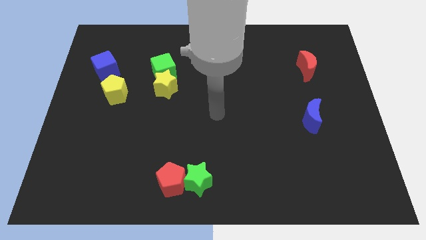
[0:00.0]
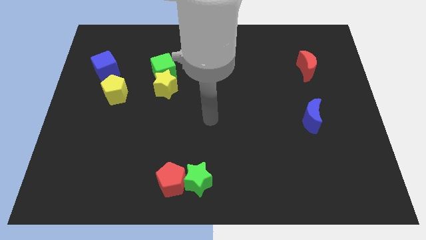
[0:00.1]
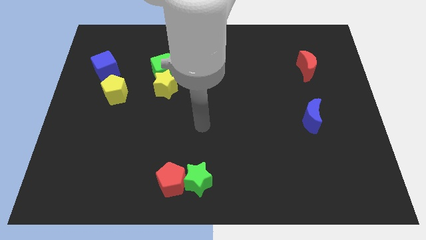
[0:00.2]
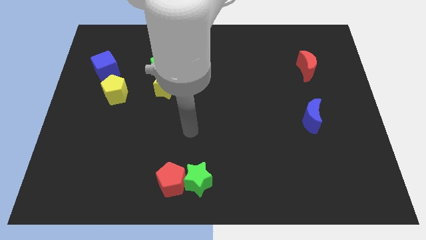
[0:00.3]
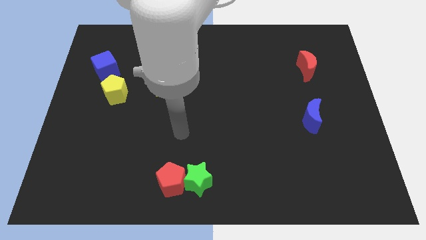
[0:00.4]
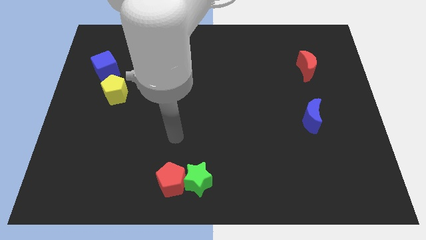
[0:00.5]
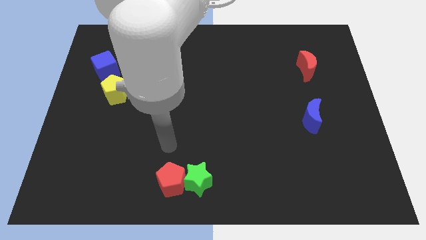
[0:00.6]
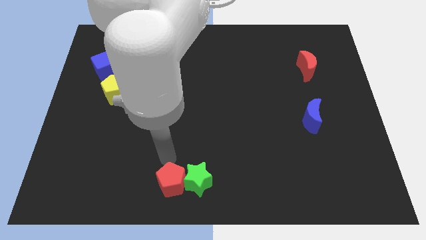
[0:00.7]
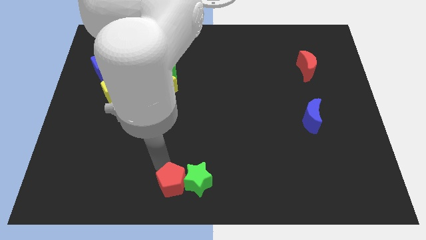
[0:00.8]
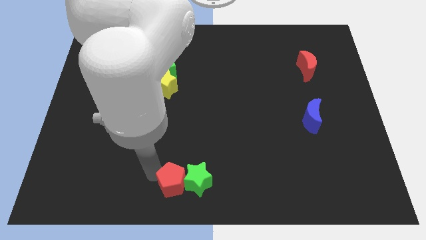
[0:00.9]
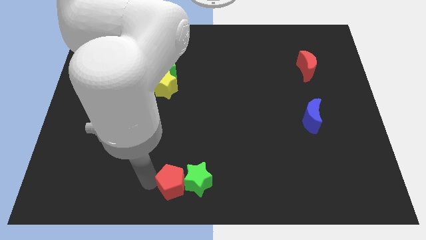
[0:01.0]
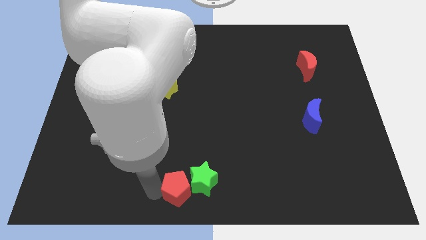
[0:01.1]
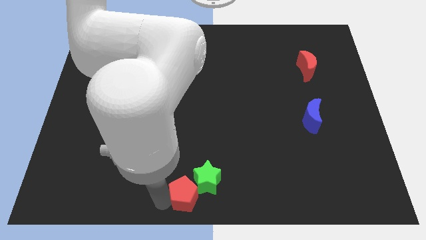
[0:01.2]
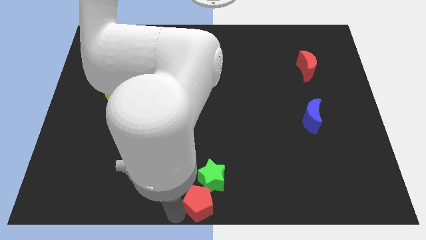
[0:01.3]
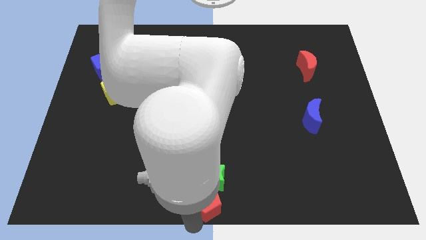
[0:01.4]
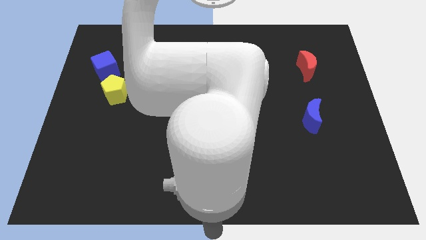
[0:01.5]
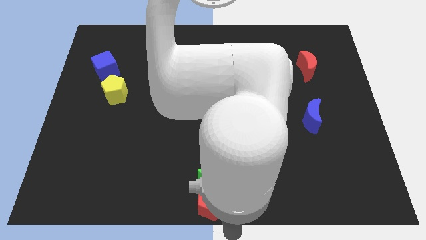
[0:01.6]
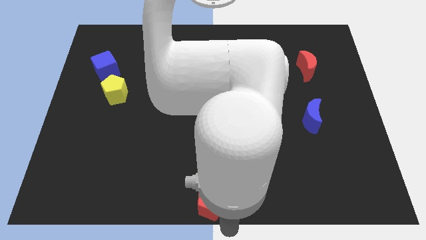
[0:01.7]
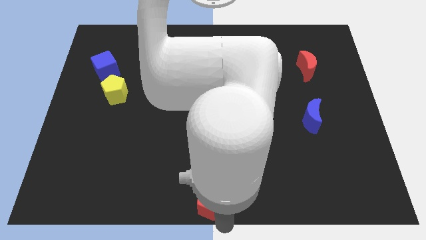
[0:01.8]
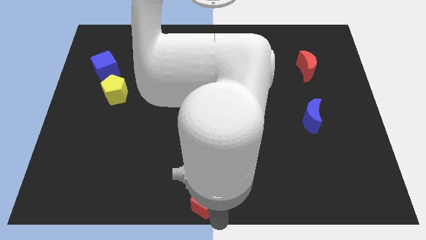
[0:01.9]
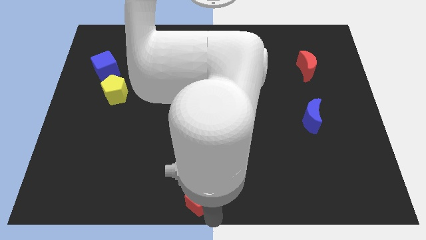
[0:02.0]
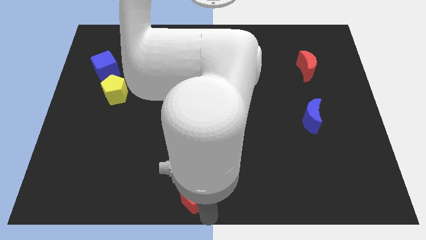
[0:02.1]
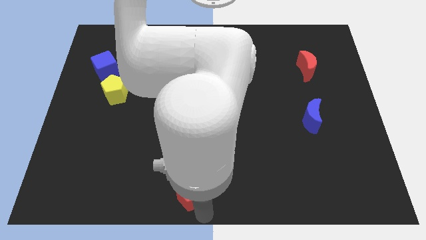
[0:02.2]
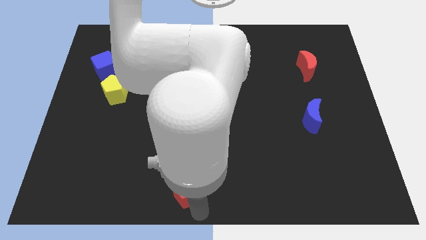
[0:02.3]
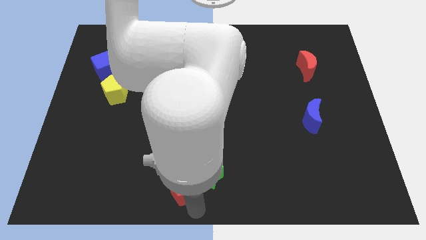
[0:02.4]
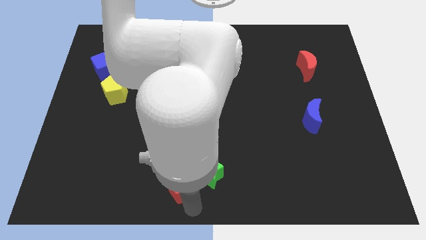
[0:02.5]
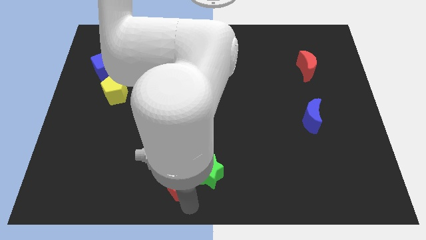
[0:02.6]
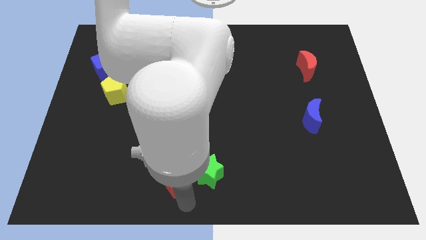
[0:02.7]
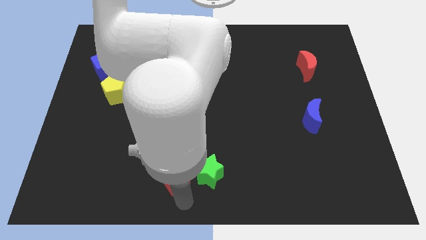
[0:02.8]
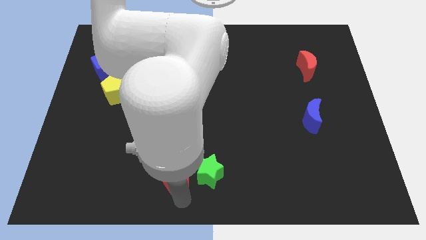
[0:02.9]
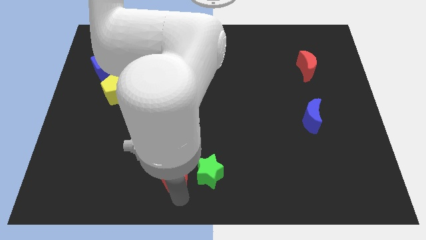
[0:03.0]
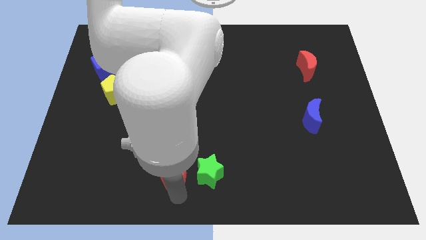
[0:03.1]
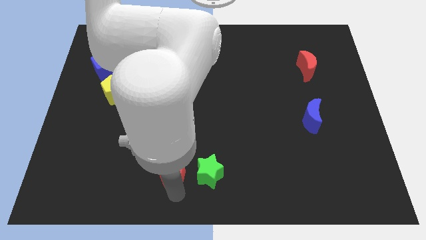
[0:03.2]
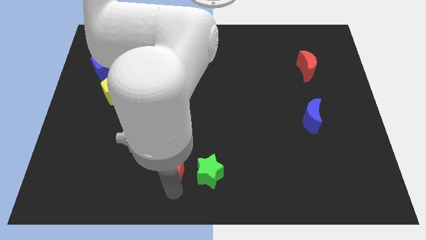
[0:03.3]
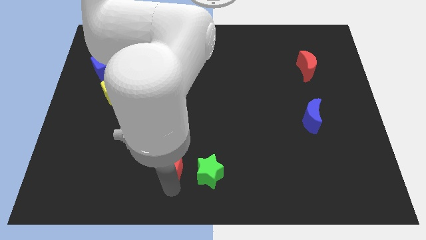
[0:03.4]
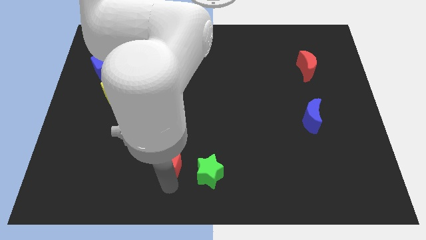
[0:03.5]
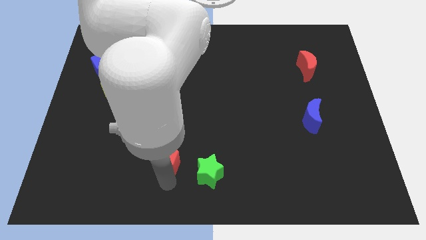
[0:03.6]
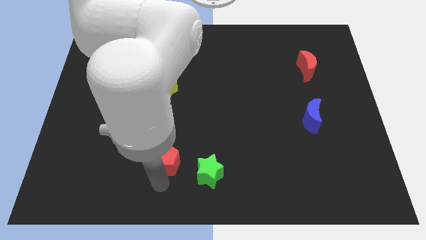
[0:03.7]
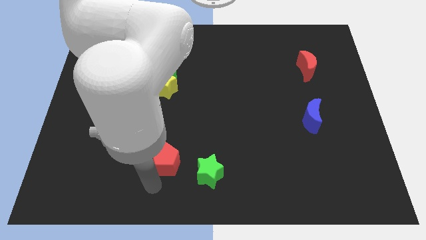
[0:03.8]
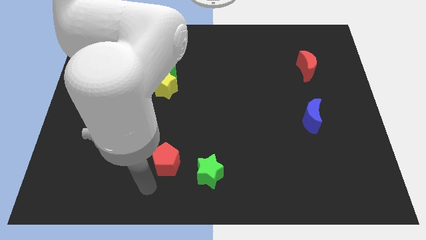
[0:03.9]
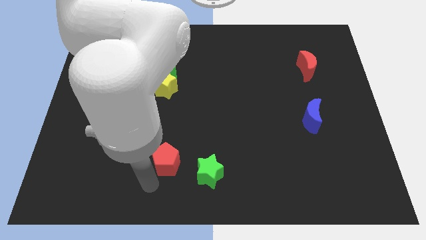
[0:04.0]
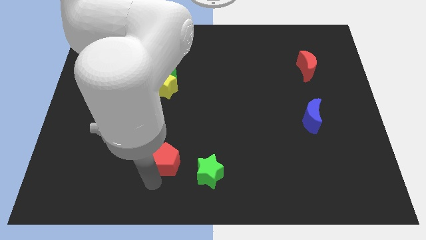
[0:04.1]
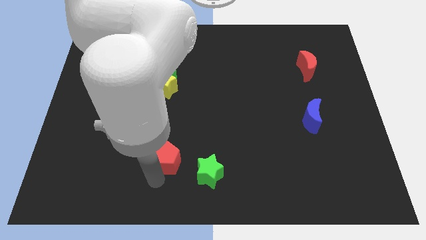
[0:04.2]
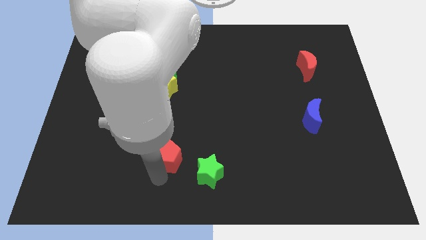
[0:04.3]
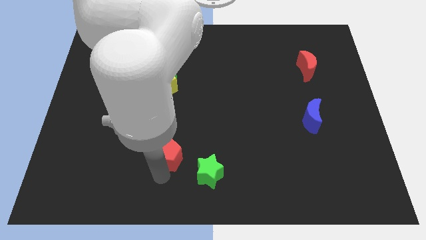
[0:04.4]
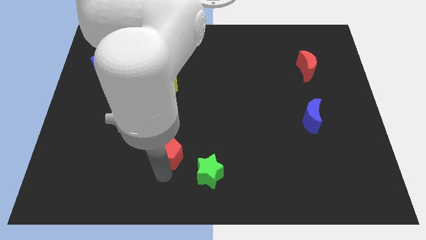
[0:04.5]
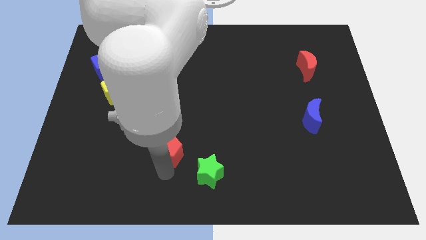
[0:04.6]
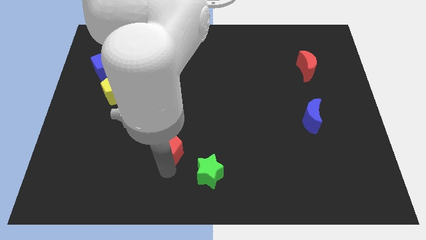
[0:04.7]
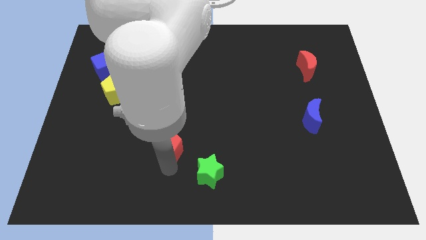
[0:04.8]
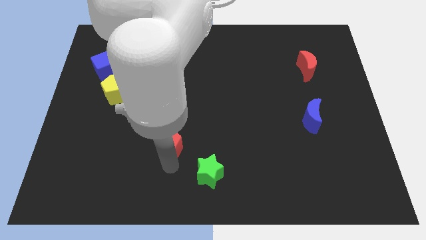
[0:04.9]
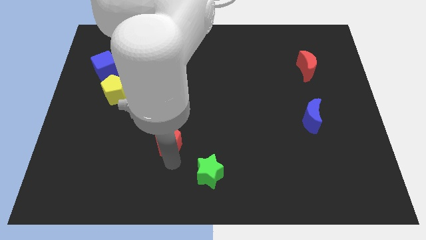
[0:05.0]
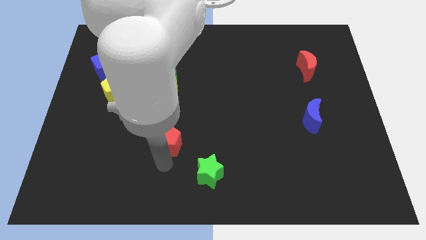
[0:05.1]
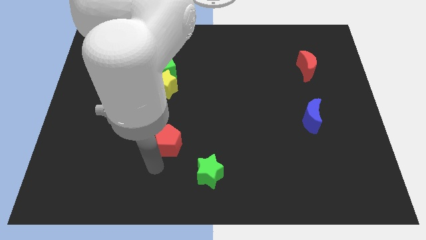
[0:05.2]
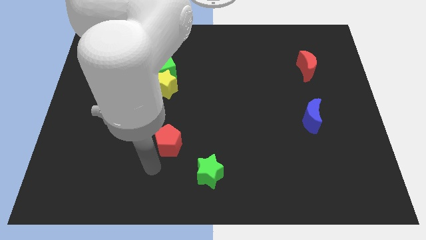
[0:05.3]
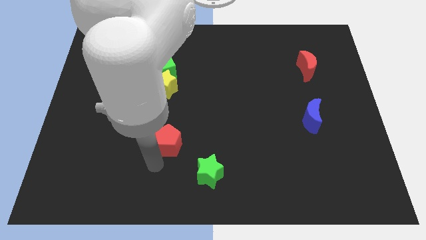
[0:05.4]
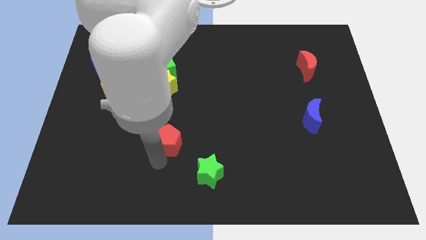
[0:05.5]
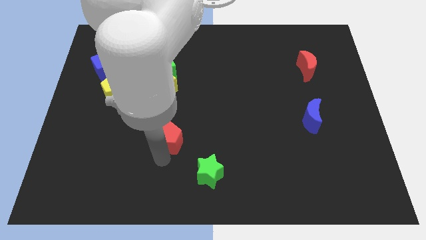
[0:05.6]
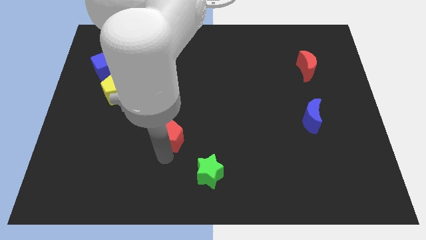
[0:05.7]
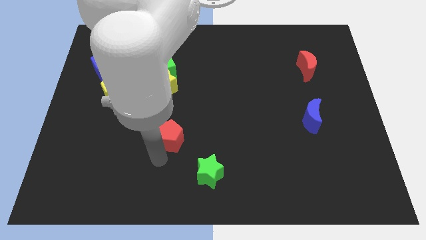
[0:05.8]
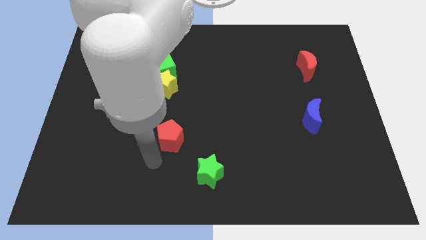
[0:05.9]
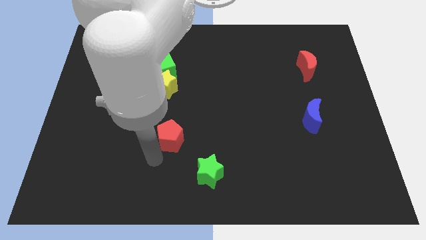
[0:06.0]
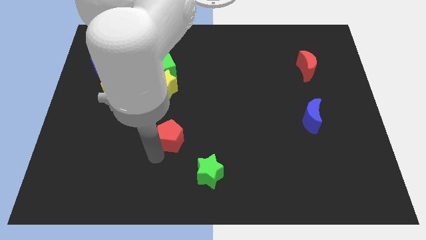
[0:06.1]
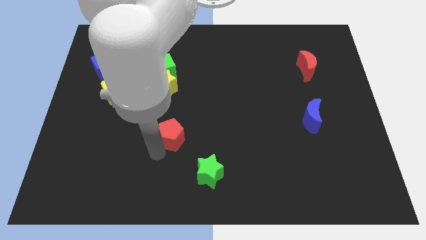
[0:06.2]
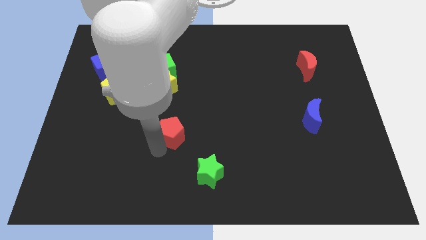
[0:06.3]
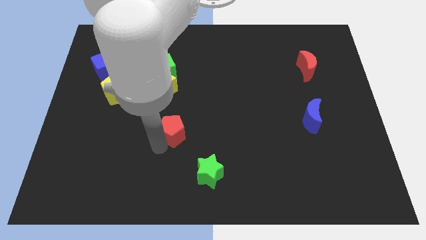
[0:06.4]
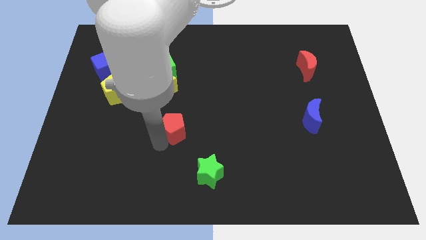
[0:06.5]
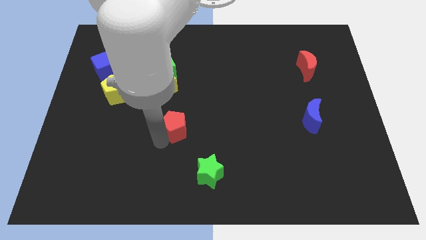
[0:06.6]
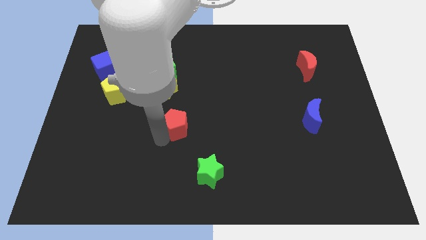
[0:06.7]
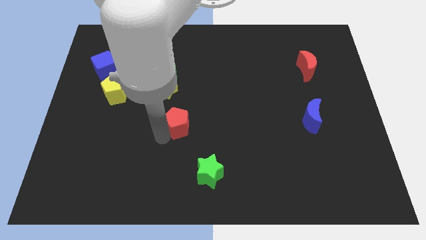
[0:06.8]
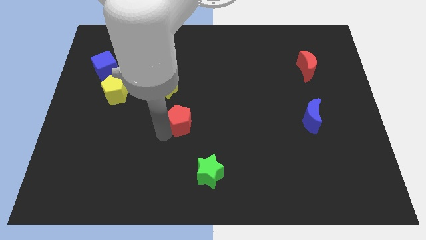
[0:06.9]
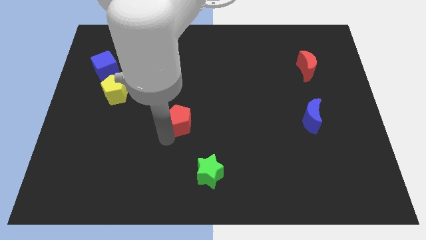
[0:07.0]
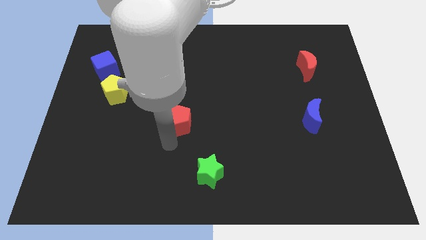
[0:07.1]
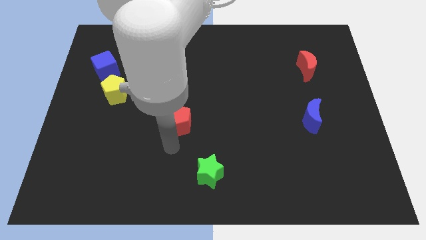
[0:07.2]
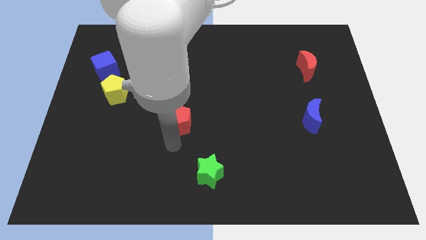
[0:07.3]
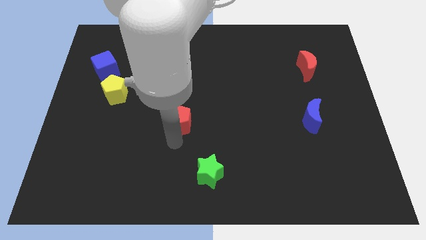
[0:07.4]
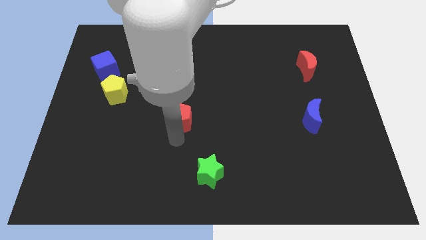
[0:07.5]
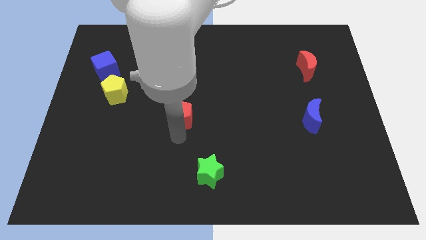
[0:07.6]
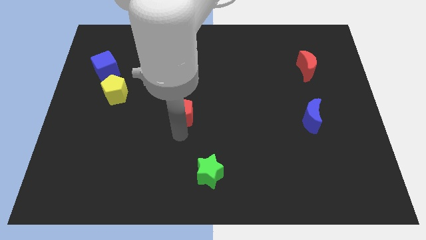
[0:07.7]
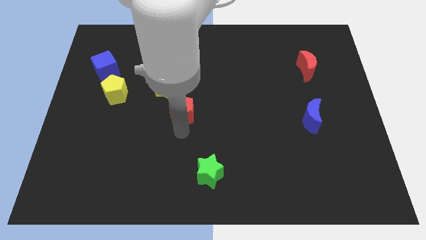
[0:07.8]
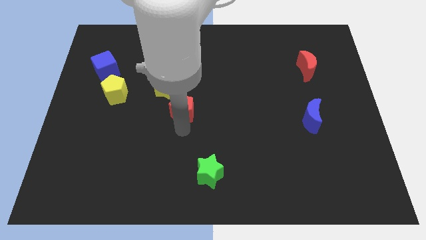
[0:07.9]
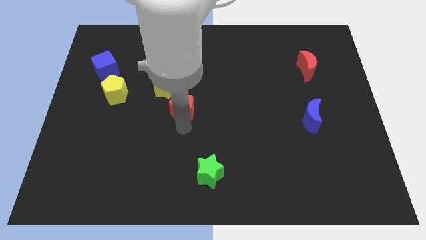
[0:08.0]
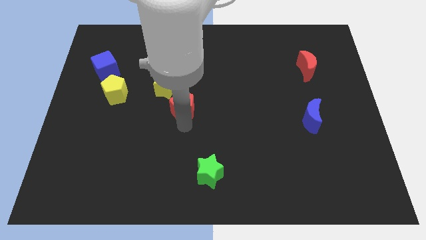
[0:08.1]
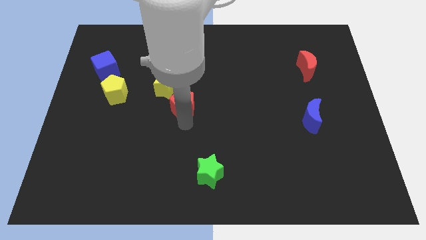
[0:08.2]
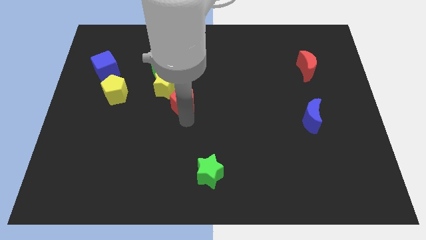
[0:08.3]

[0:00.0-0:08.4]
push the red pentagon upwards
